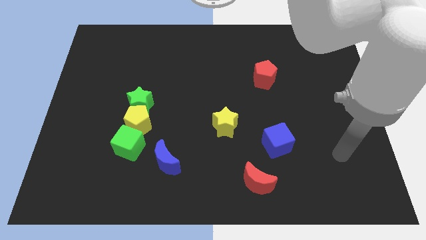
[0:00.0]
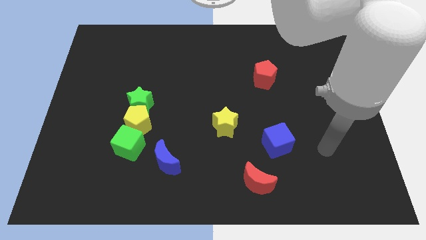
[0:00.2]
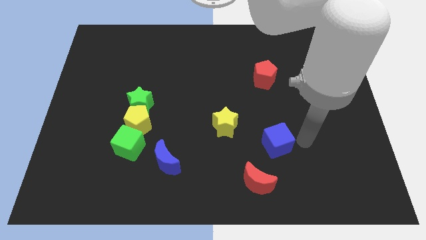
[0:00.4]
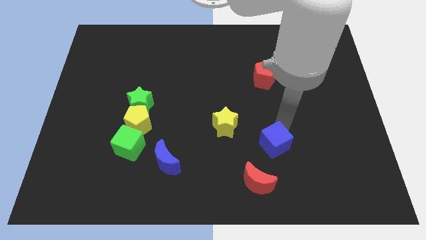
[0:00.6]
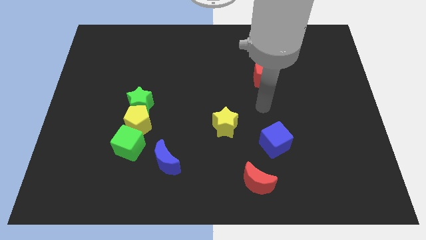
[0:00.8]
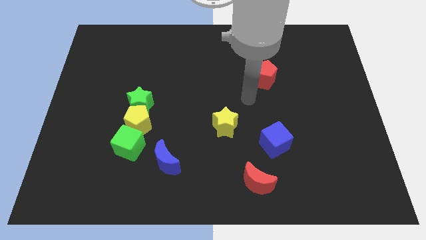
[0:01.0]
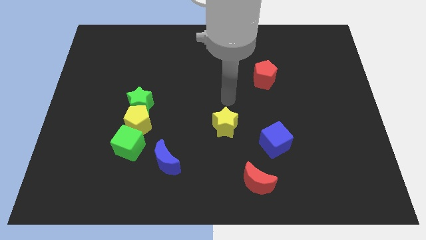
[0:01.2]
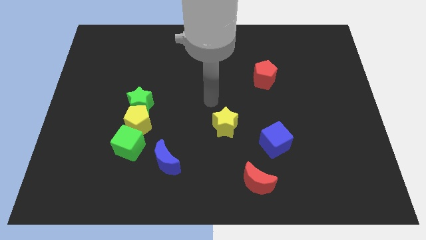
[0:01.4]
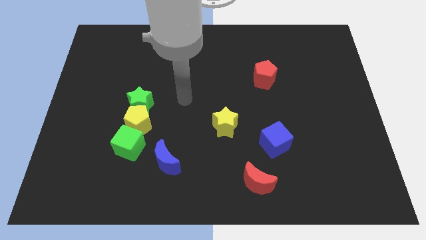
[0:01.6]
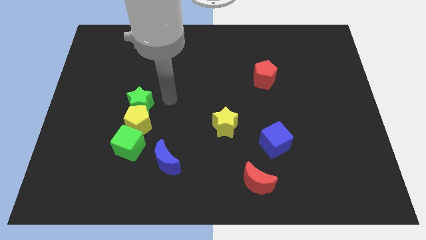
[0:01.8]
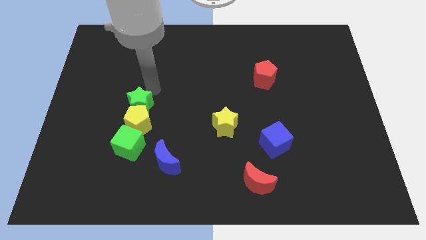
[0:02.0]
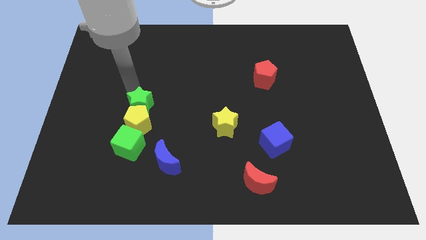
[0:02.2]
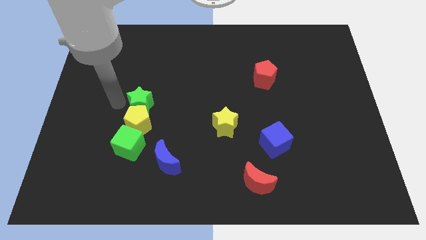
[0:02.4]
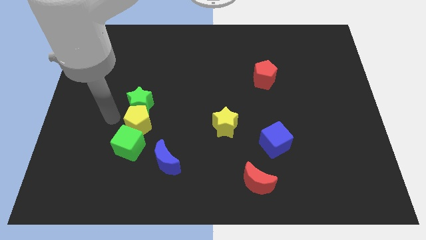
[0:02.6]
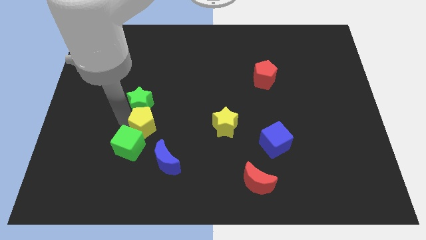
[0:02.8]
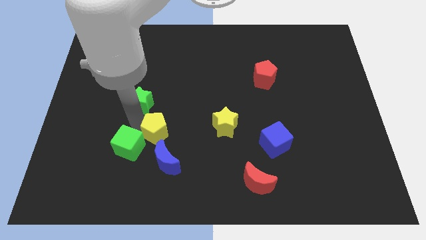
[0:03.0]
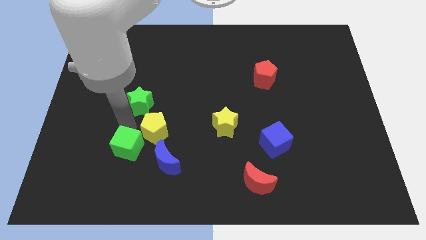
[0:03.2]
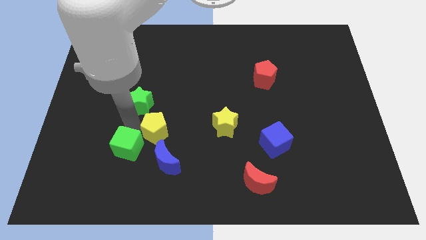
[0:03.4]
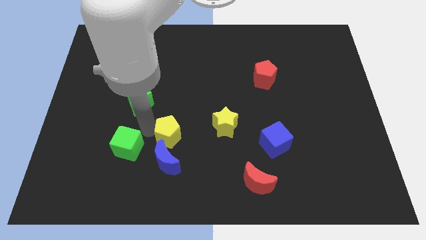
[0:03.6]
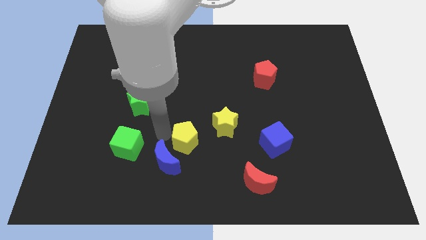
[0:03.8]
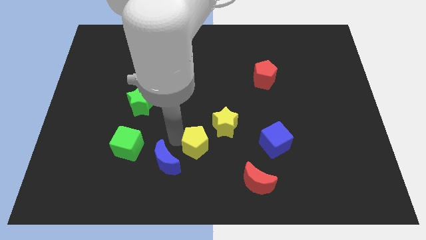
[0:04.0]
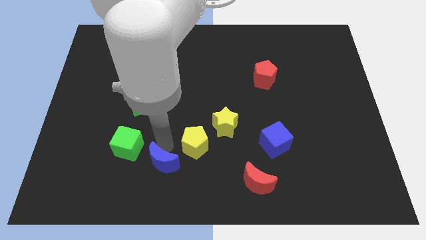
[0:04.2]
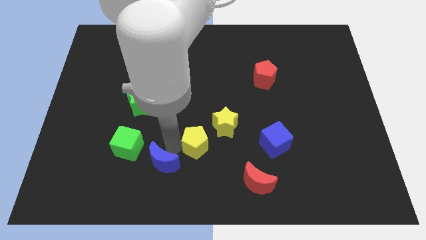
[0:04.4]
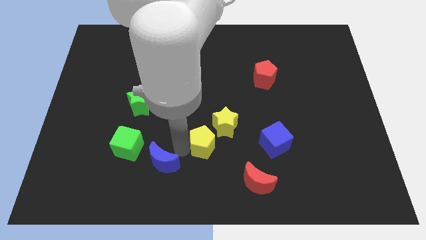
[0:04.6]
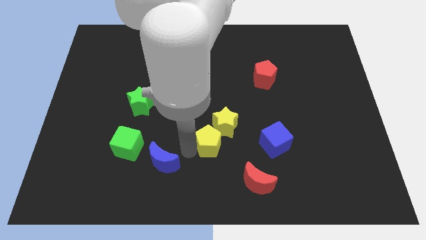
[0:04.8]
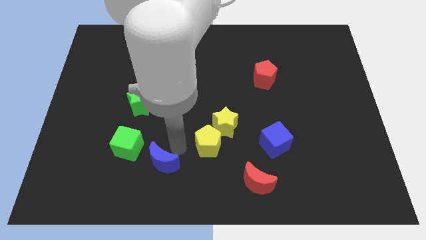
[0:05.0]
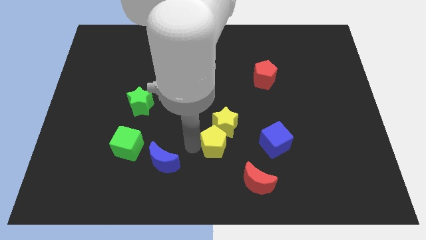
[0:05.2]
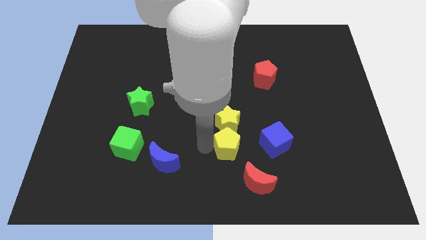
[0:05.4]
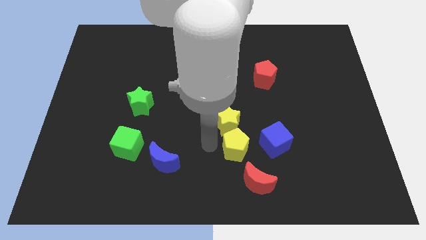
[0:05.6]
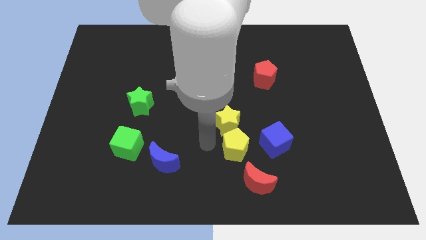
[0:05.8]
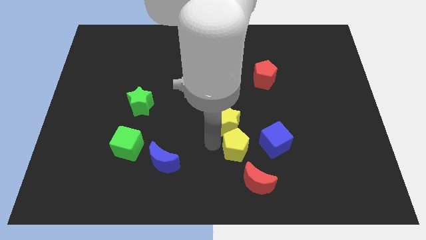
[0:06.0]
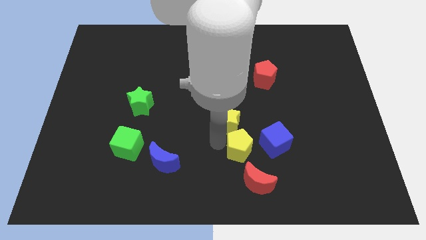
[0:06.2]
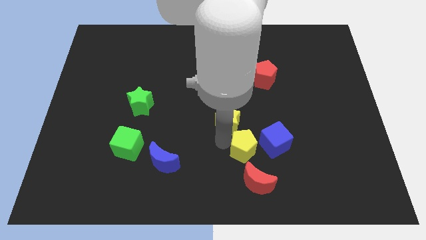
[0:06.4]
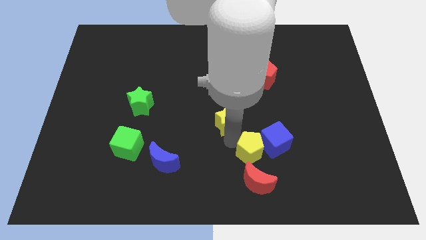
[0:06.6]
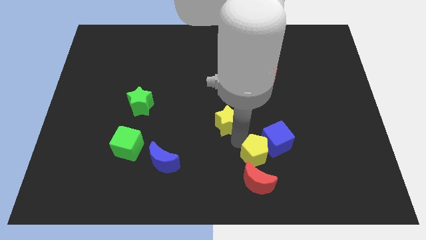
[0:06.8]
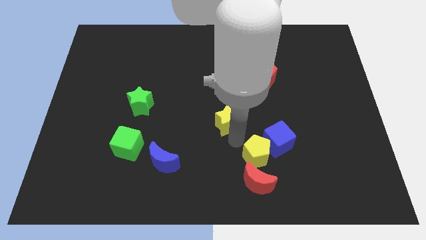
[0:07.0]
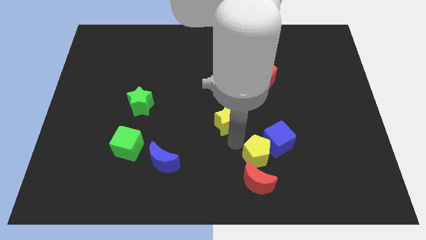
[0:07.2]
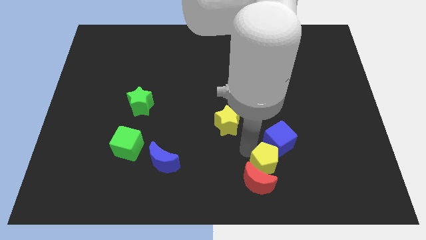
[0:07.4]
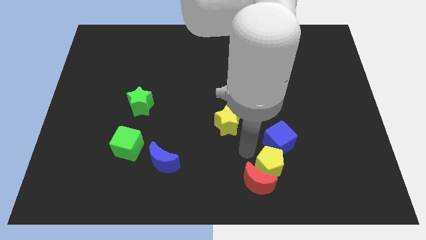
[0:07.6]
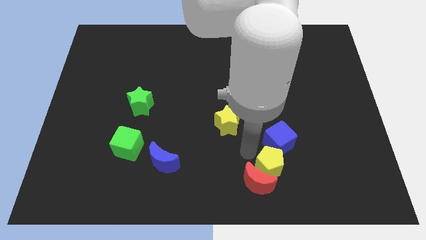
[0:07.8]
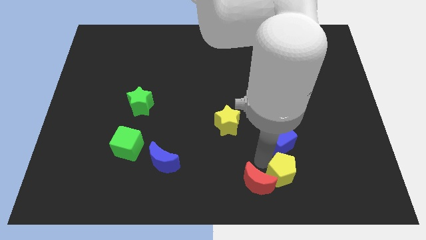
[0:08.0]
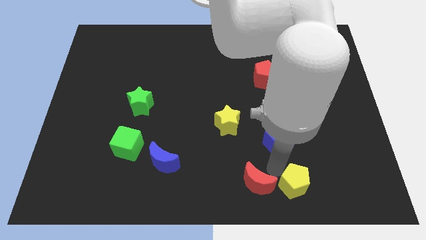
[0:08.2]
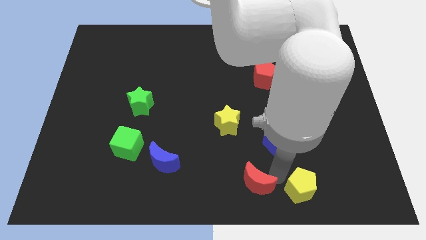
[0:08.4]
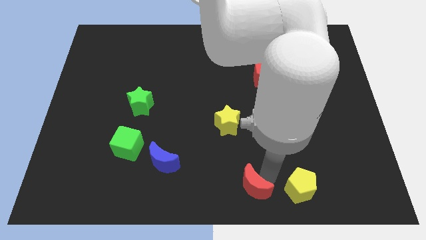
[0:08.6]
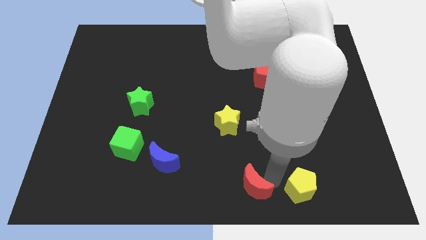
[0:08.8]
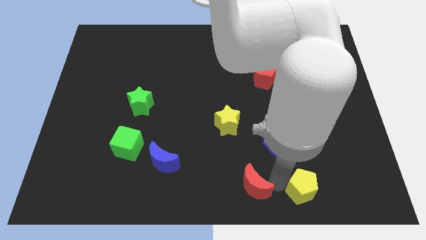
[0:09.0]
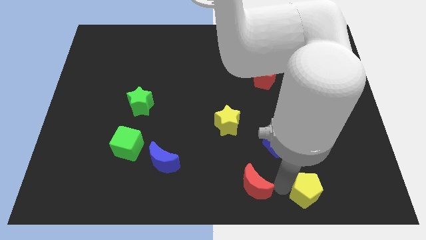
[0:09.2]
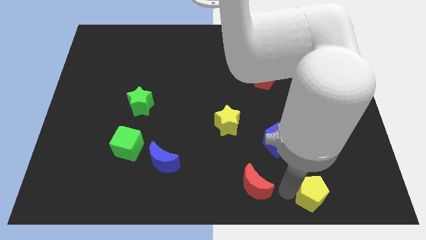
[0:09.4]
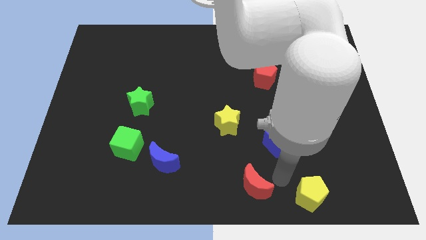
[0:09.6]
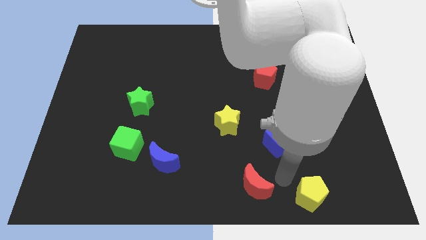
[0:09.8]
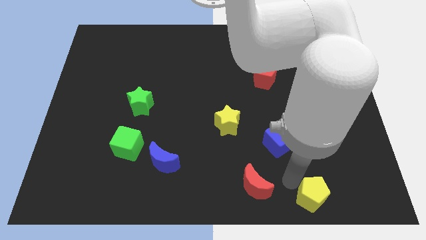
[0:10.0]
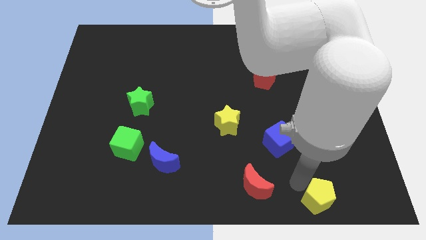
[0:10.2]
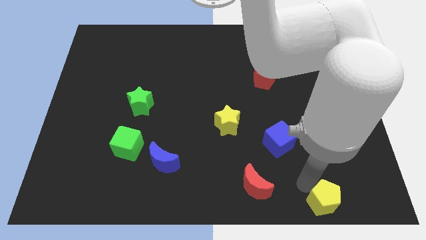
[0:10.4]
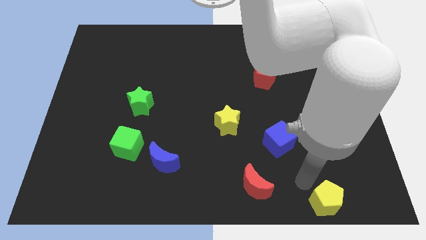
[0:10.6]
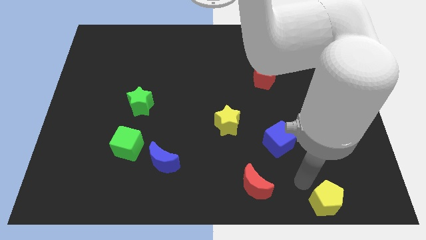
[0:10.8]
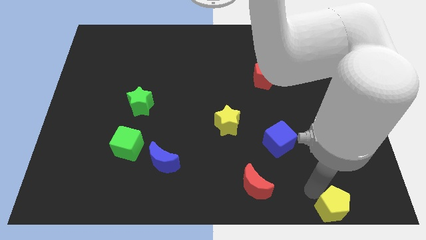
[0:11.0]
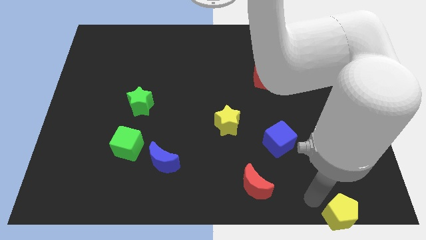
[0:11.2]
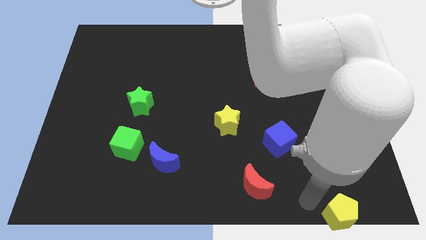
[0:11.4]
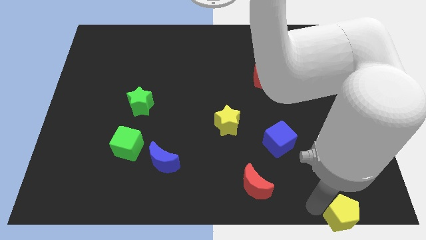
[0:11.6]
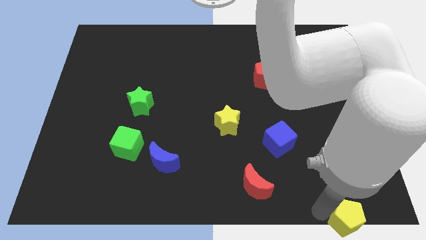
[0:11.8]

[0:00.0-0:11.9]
move the yellow pentagon to the bottom right corner
